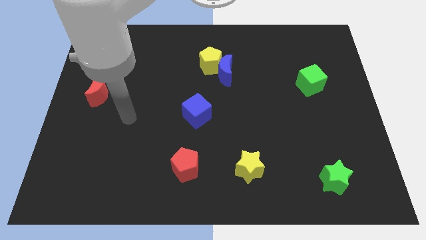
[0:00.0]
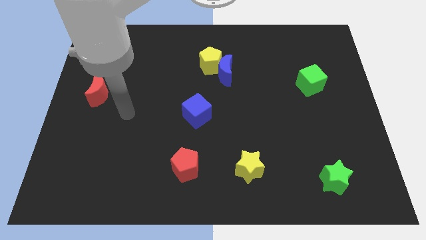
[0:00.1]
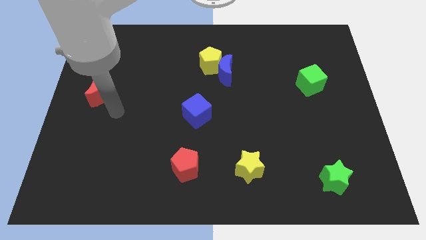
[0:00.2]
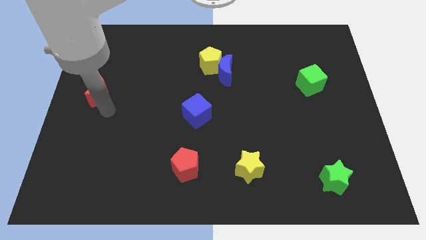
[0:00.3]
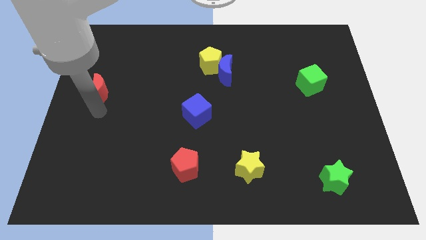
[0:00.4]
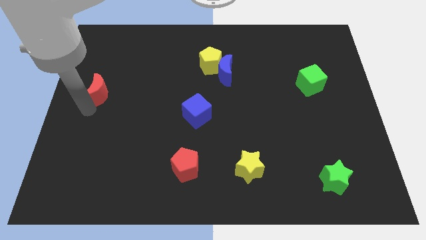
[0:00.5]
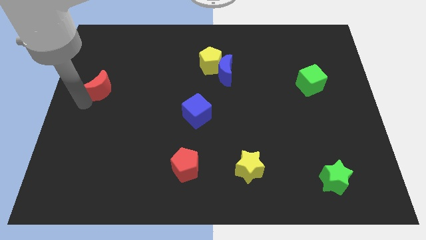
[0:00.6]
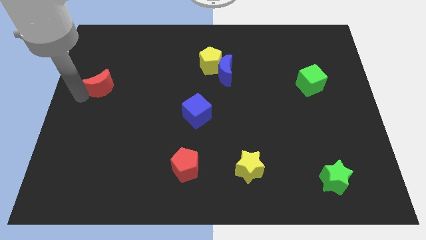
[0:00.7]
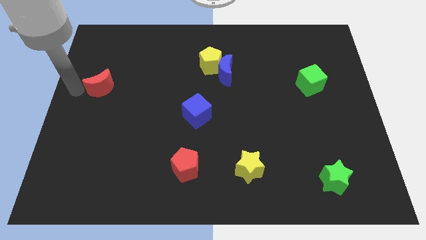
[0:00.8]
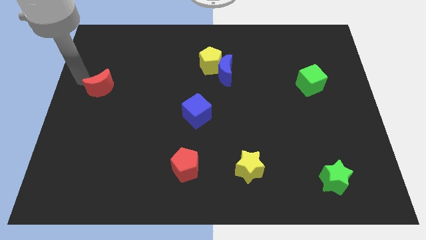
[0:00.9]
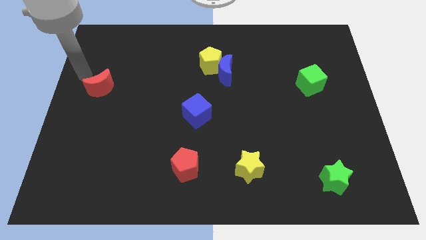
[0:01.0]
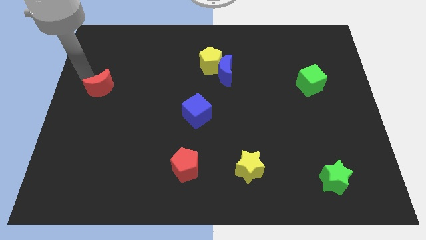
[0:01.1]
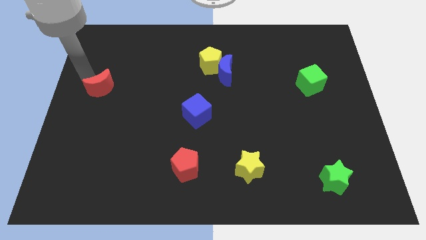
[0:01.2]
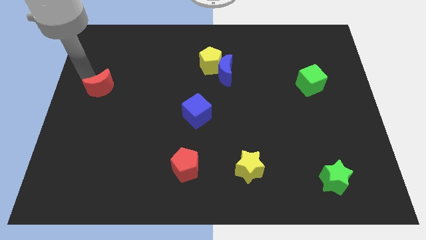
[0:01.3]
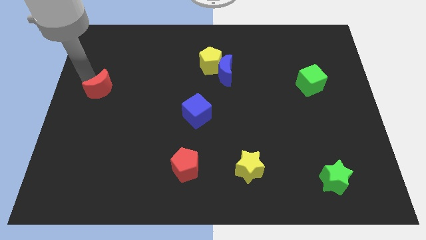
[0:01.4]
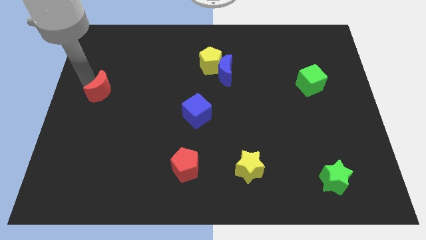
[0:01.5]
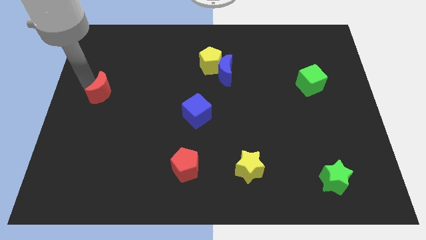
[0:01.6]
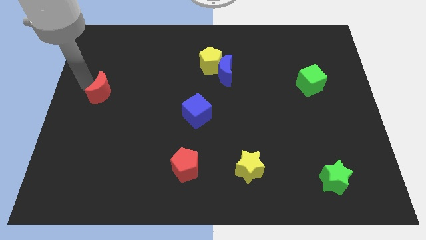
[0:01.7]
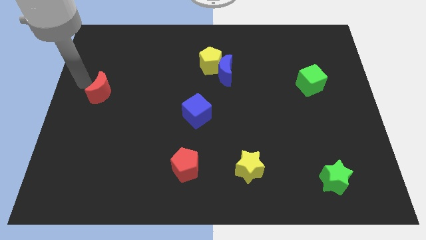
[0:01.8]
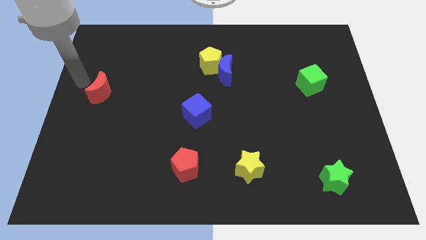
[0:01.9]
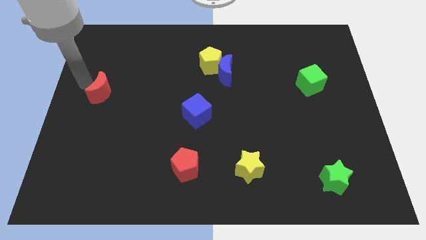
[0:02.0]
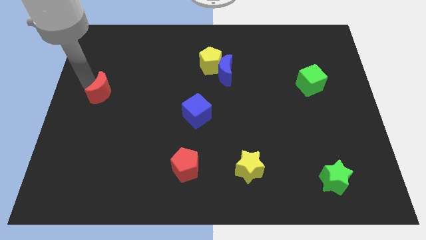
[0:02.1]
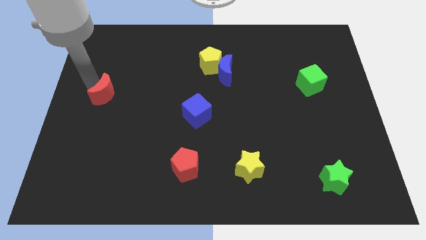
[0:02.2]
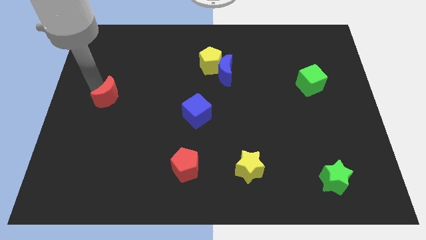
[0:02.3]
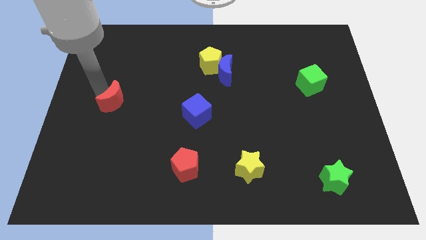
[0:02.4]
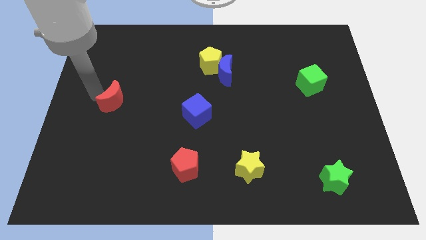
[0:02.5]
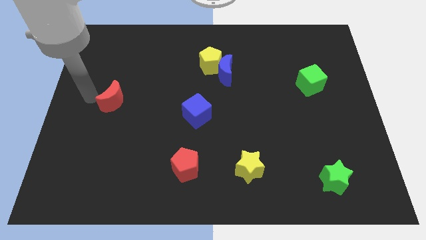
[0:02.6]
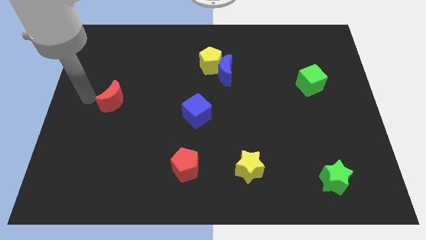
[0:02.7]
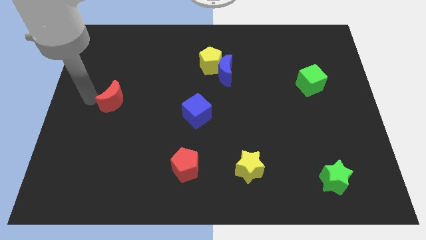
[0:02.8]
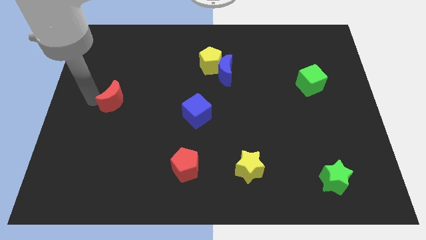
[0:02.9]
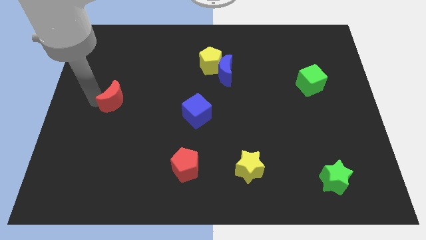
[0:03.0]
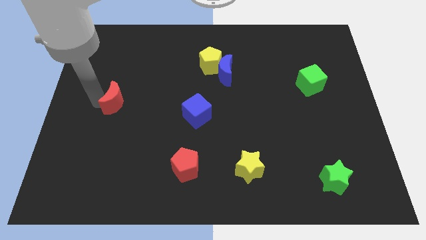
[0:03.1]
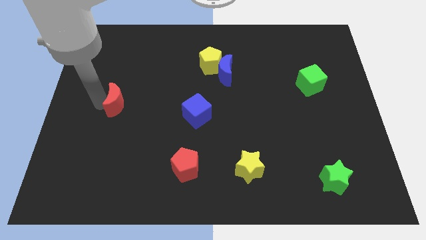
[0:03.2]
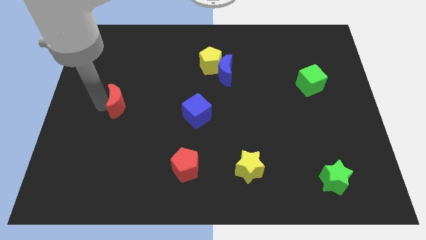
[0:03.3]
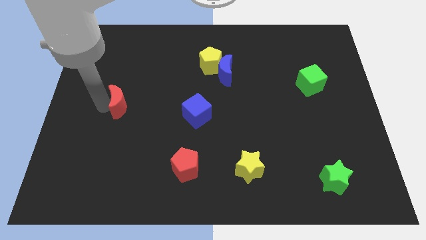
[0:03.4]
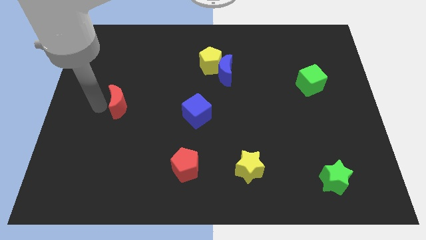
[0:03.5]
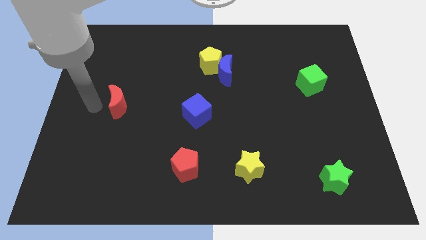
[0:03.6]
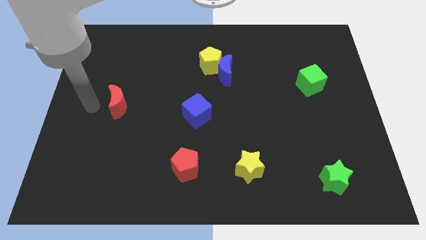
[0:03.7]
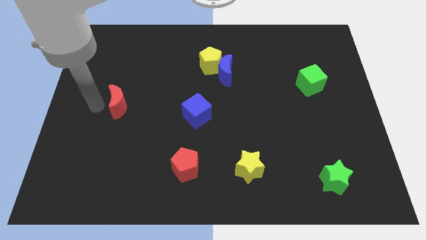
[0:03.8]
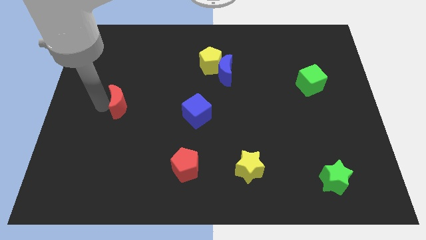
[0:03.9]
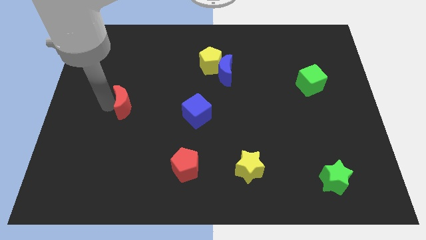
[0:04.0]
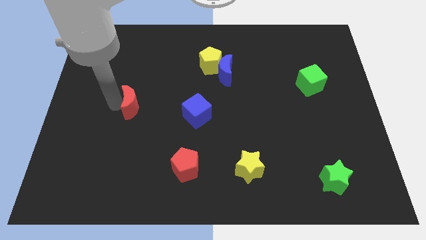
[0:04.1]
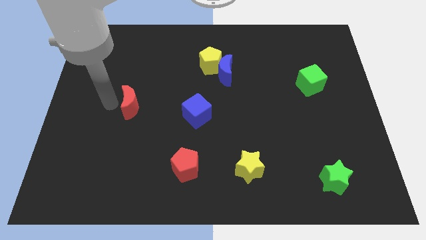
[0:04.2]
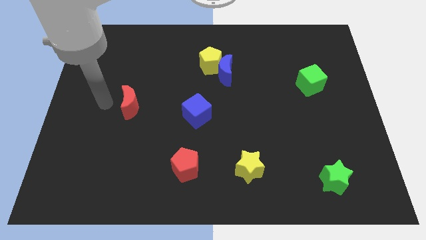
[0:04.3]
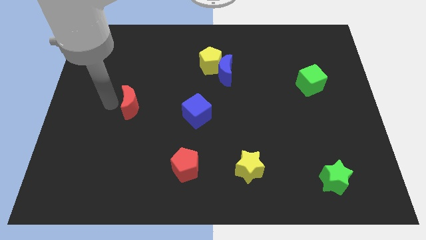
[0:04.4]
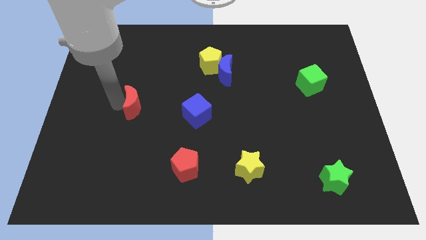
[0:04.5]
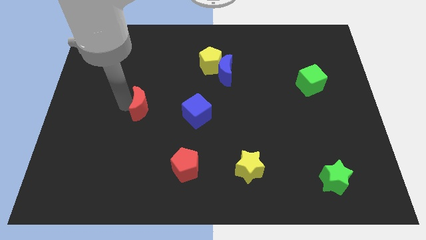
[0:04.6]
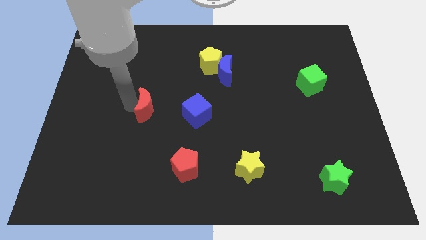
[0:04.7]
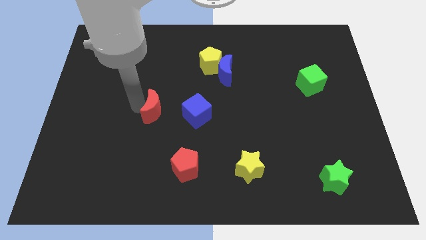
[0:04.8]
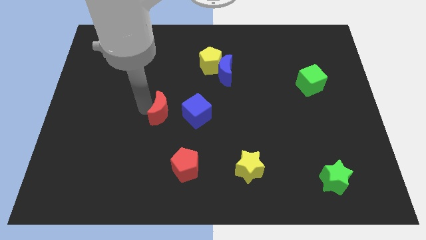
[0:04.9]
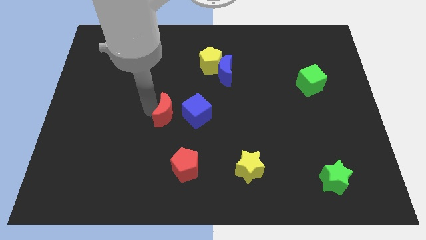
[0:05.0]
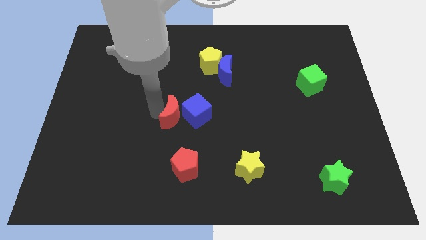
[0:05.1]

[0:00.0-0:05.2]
move the red moon to the blue cube

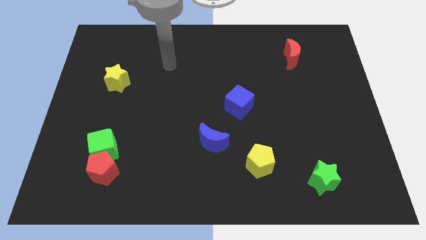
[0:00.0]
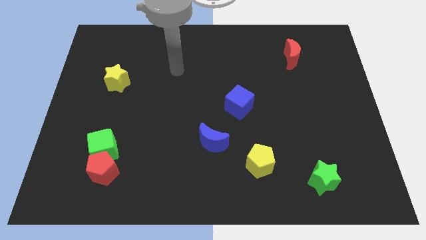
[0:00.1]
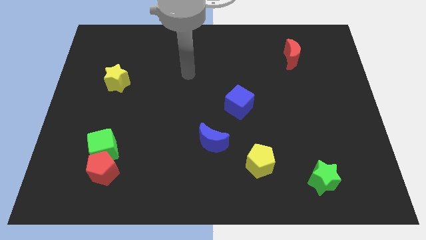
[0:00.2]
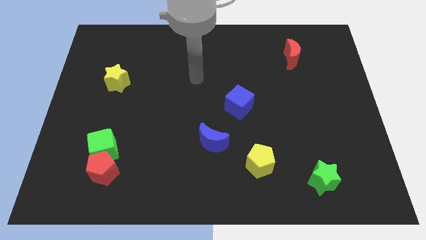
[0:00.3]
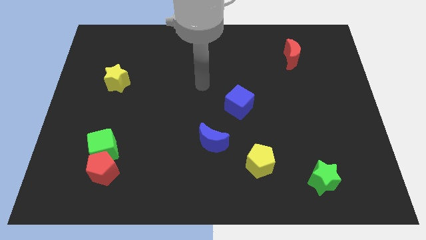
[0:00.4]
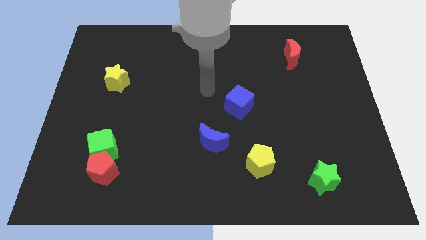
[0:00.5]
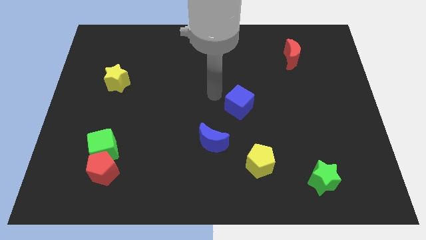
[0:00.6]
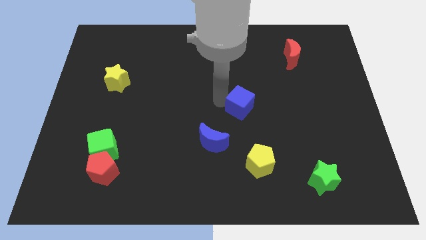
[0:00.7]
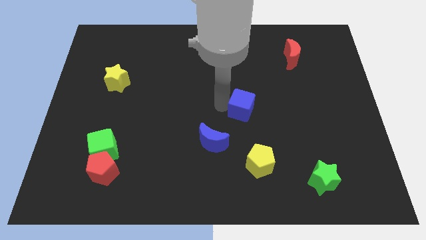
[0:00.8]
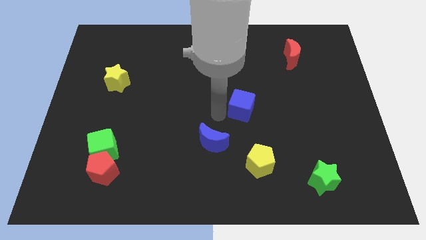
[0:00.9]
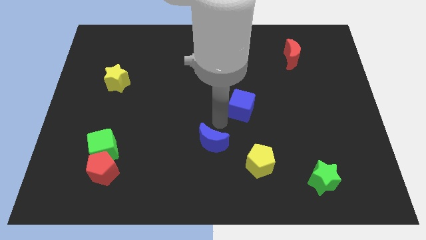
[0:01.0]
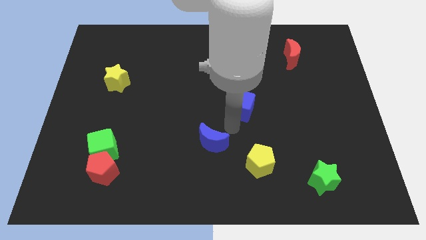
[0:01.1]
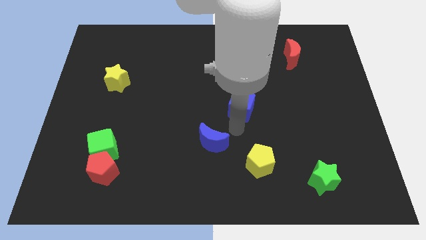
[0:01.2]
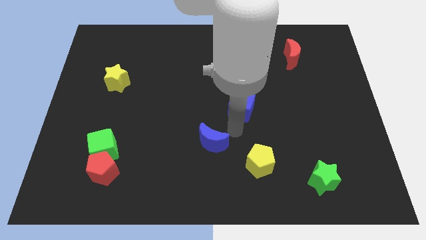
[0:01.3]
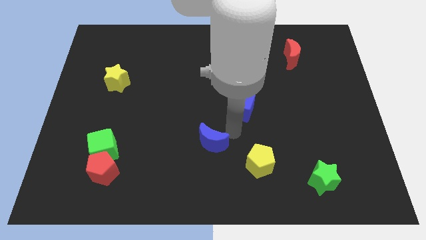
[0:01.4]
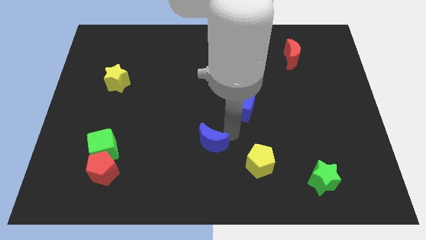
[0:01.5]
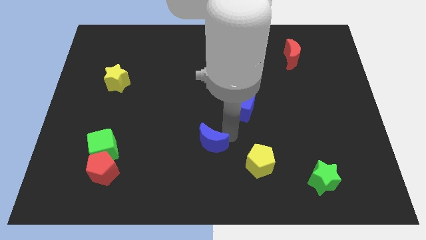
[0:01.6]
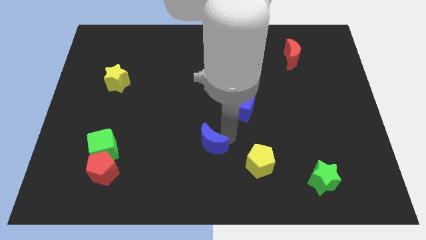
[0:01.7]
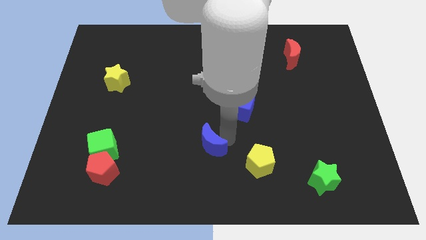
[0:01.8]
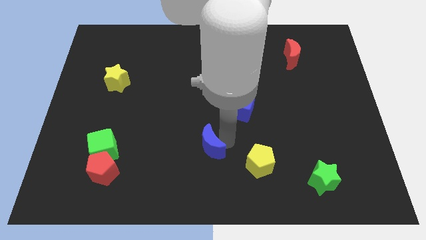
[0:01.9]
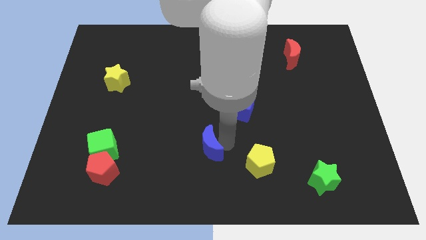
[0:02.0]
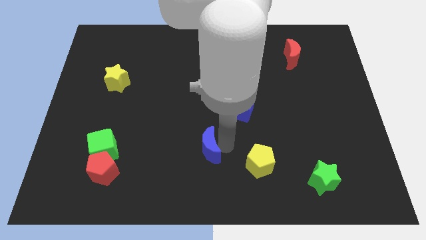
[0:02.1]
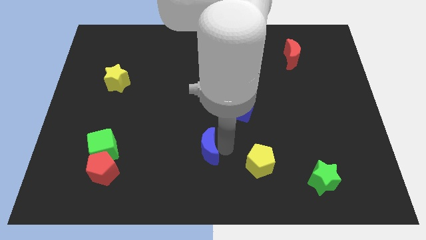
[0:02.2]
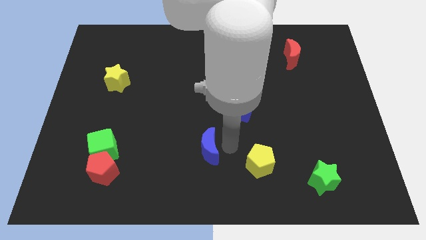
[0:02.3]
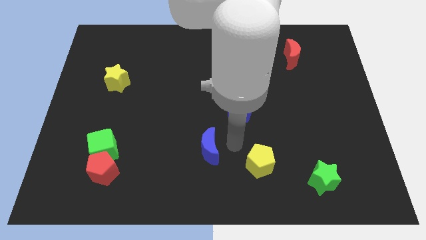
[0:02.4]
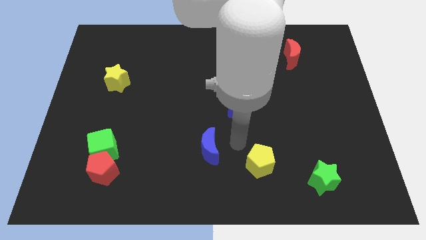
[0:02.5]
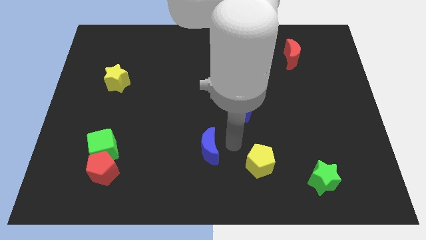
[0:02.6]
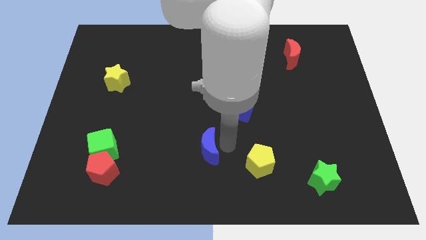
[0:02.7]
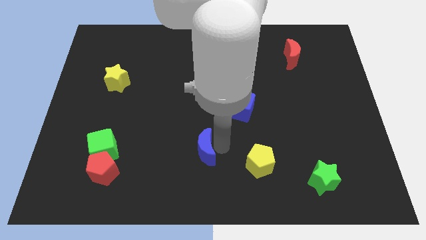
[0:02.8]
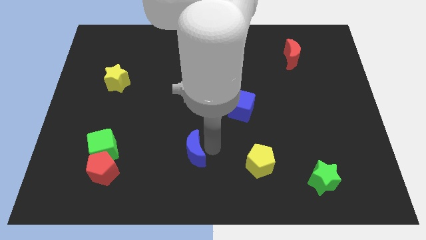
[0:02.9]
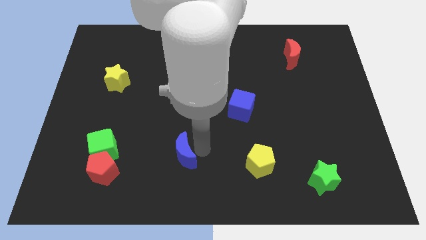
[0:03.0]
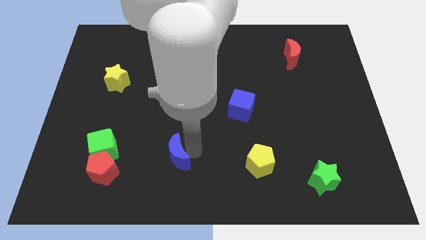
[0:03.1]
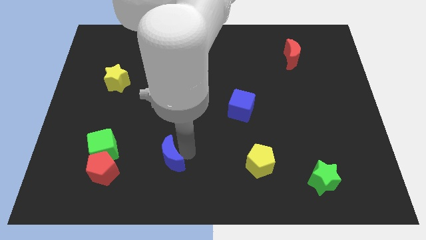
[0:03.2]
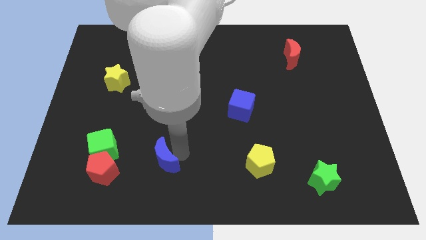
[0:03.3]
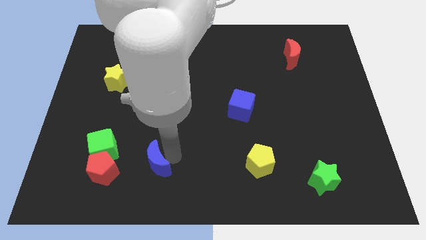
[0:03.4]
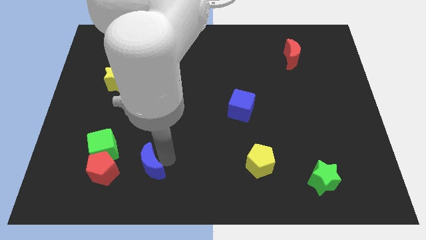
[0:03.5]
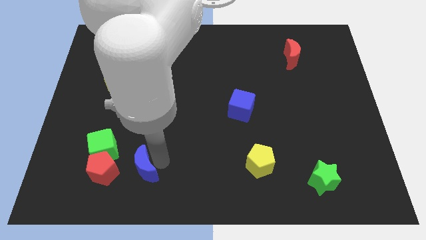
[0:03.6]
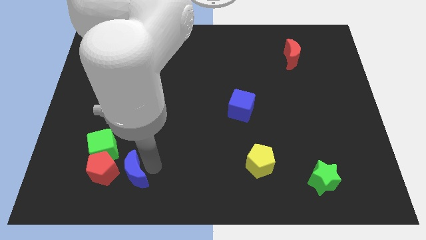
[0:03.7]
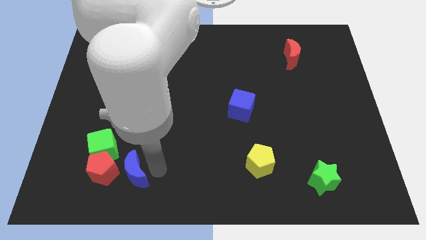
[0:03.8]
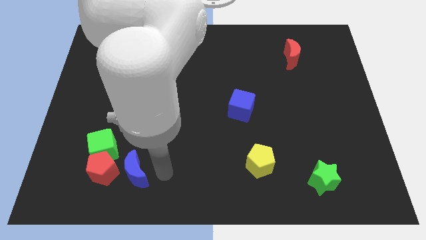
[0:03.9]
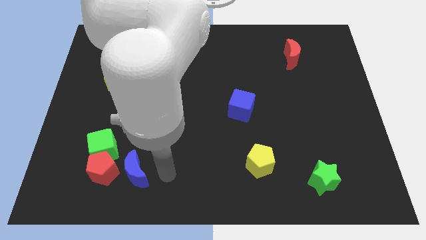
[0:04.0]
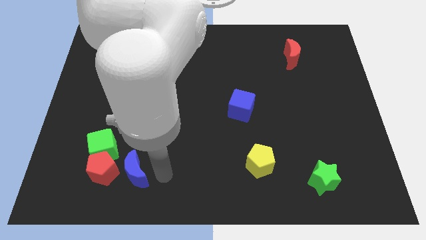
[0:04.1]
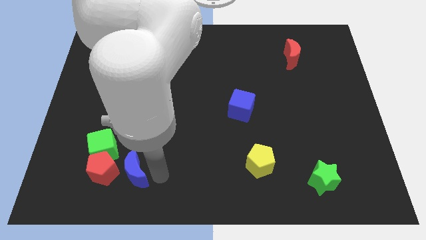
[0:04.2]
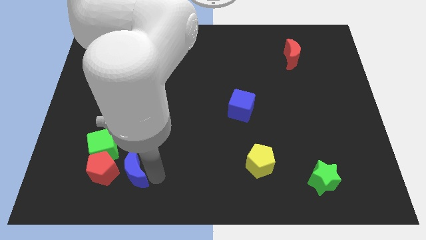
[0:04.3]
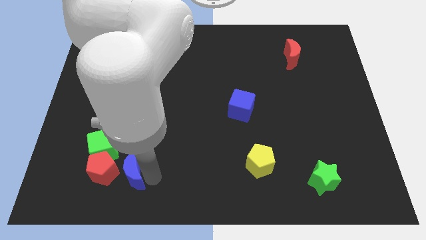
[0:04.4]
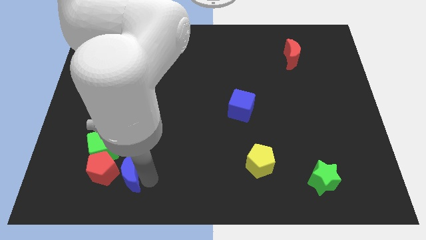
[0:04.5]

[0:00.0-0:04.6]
put the blue moon towards the red pentagon
